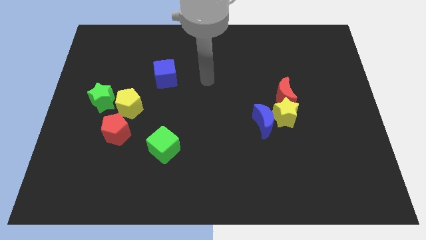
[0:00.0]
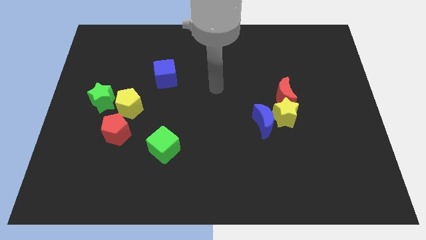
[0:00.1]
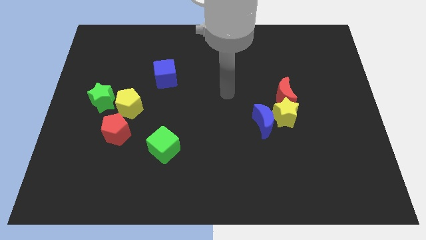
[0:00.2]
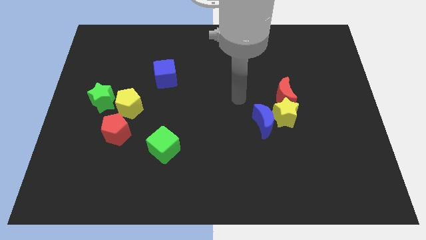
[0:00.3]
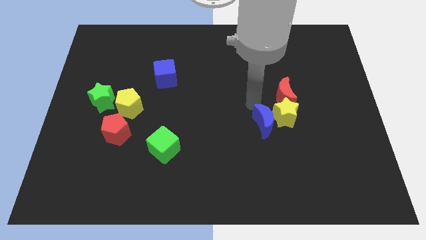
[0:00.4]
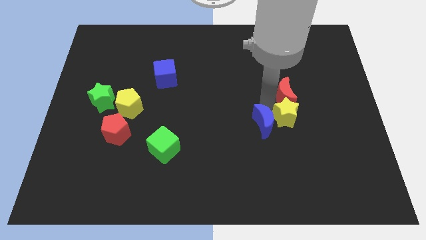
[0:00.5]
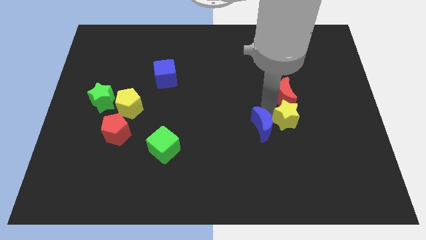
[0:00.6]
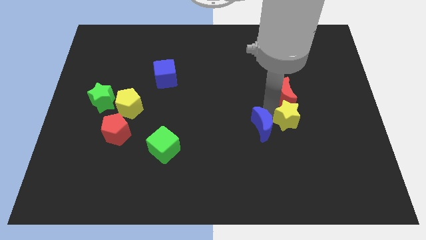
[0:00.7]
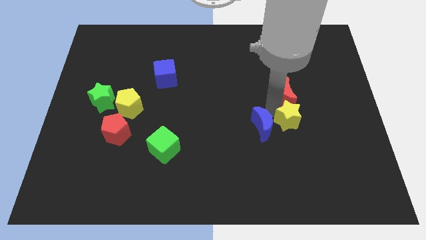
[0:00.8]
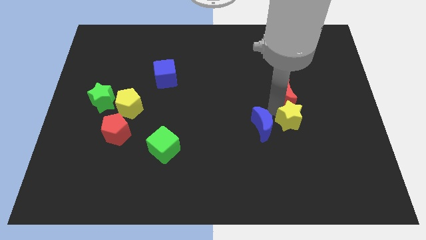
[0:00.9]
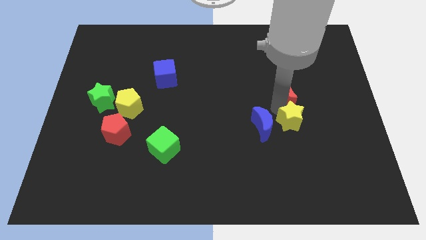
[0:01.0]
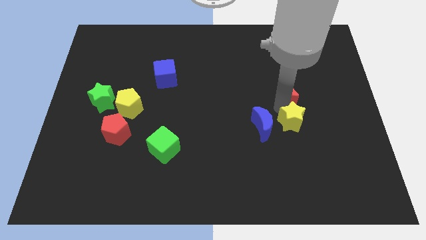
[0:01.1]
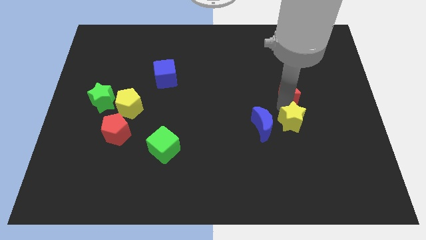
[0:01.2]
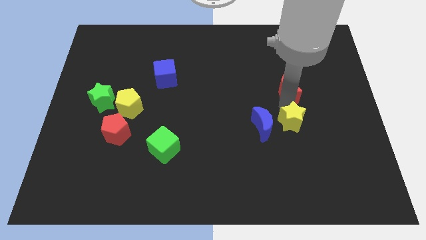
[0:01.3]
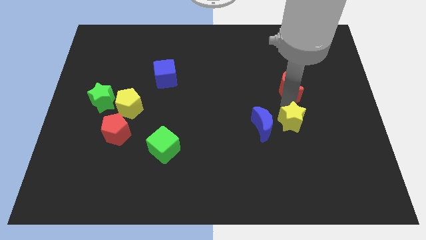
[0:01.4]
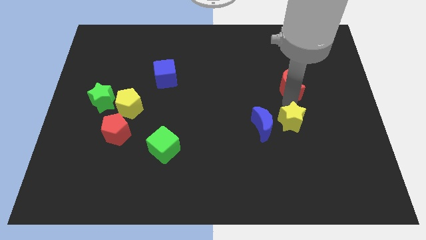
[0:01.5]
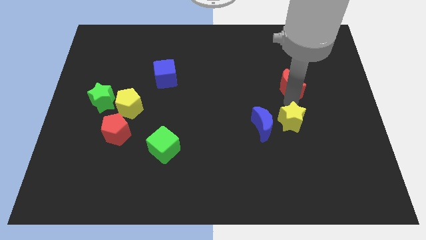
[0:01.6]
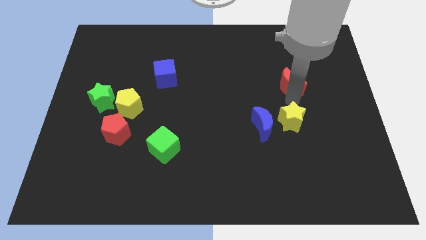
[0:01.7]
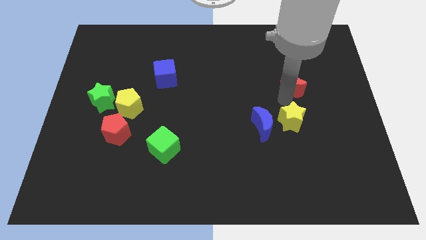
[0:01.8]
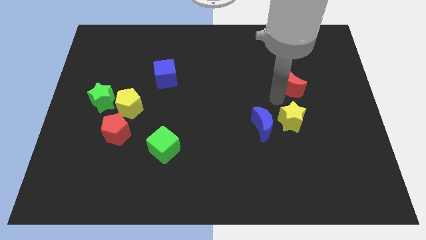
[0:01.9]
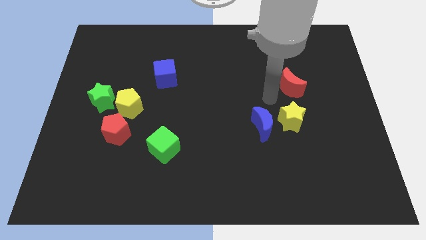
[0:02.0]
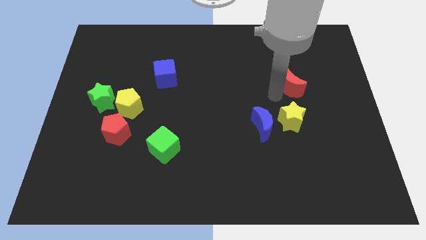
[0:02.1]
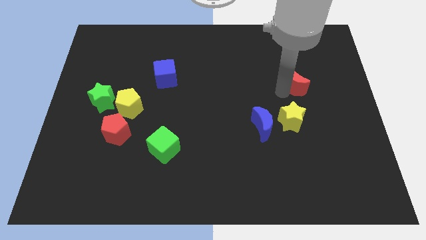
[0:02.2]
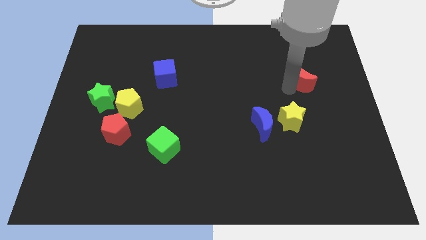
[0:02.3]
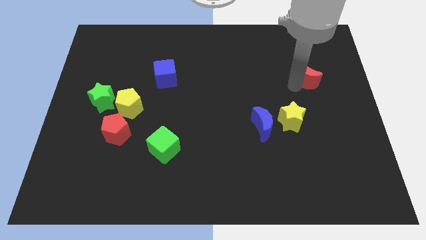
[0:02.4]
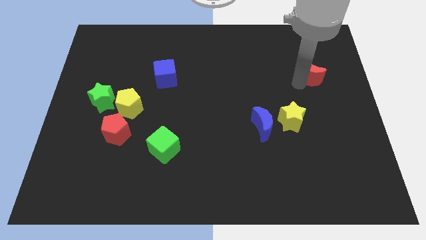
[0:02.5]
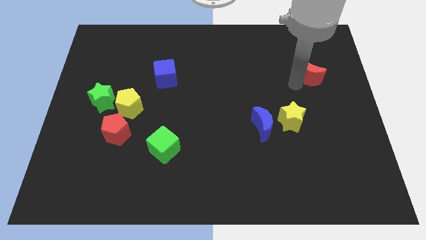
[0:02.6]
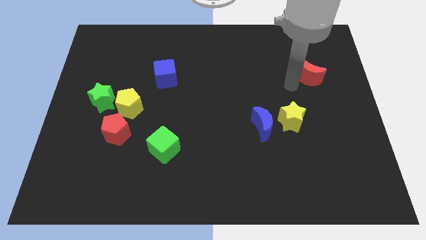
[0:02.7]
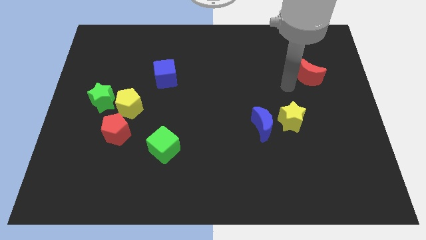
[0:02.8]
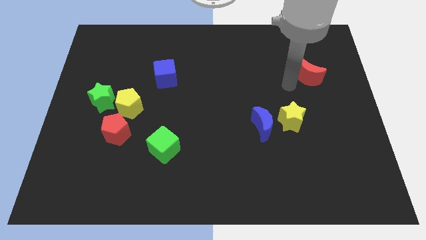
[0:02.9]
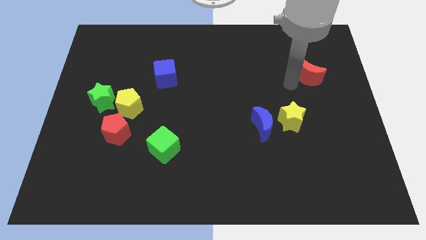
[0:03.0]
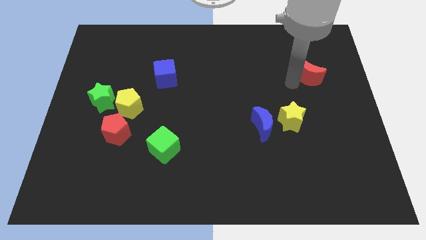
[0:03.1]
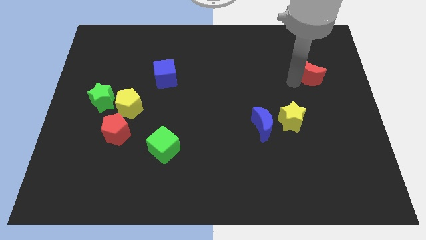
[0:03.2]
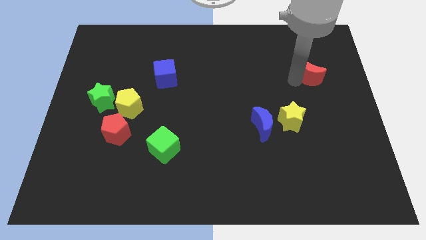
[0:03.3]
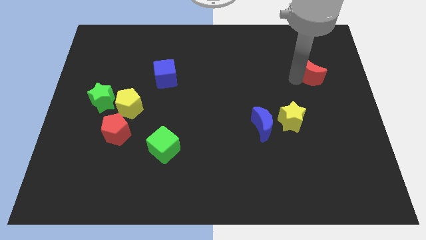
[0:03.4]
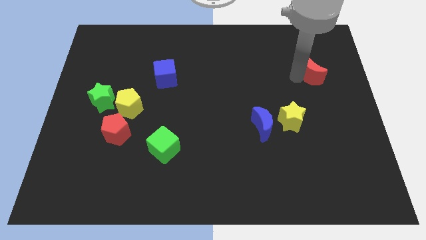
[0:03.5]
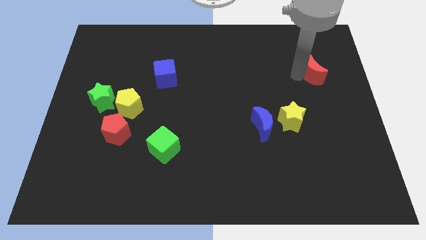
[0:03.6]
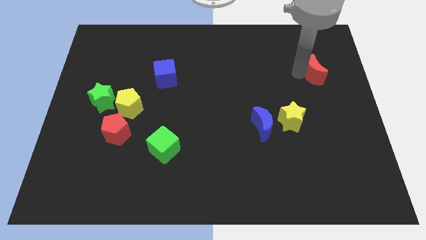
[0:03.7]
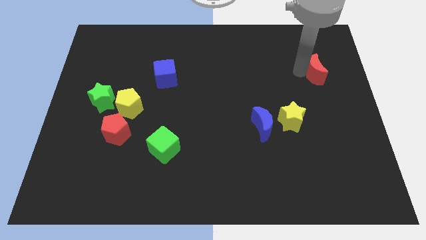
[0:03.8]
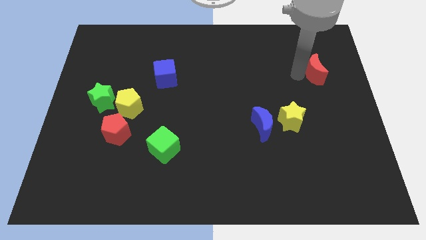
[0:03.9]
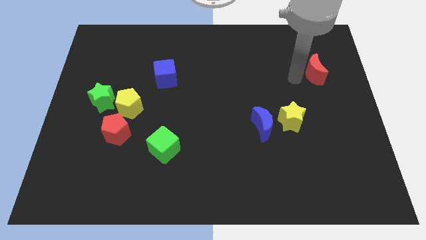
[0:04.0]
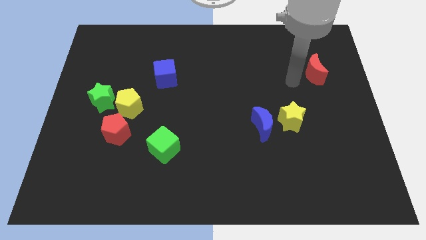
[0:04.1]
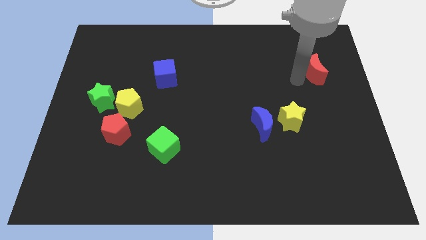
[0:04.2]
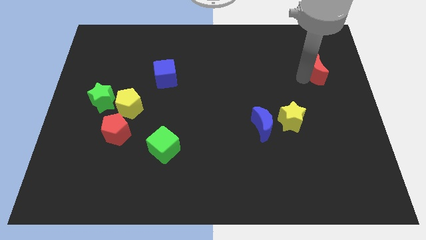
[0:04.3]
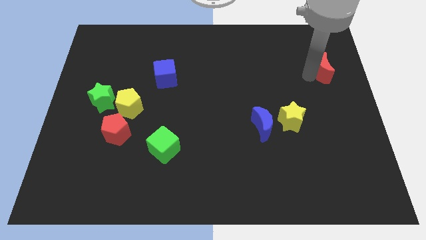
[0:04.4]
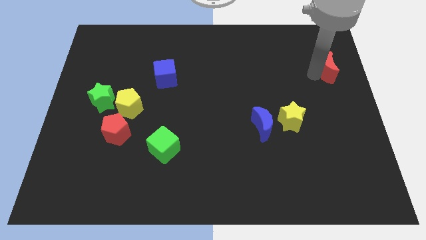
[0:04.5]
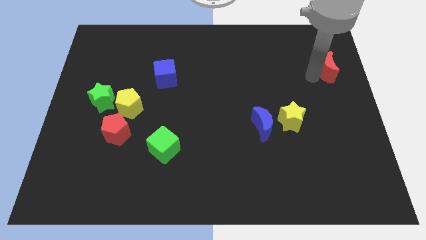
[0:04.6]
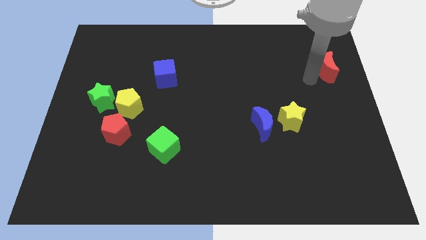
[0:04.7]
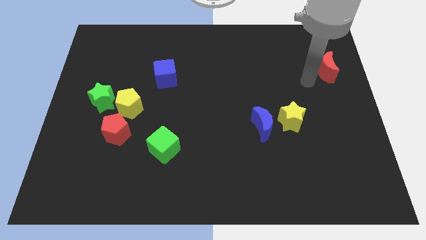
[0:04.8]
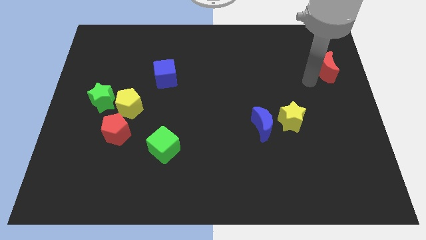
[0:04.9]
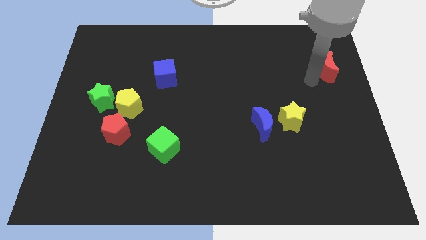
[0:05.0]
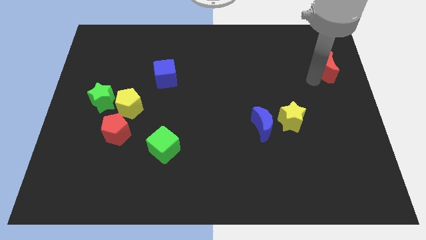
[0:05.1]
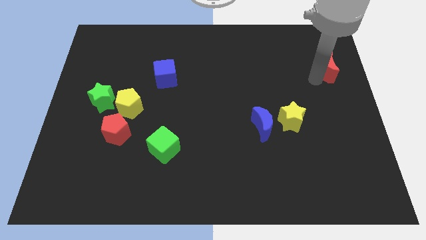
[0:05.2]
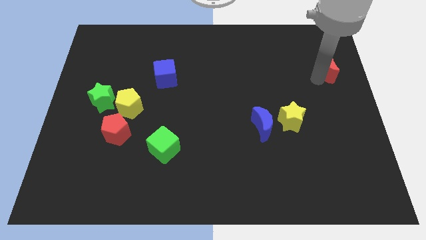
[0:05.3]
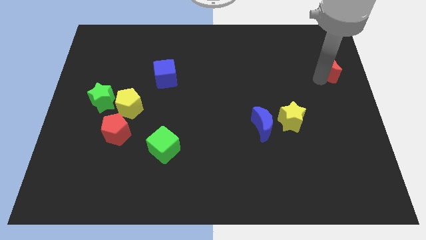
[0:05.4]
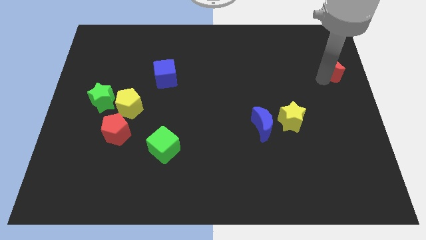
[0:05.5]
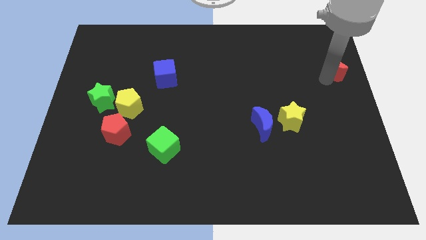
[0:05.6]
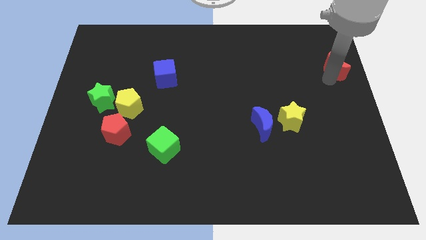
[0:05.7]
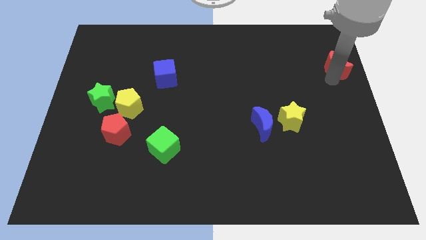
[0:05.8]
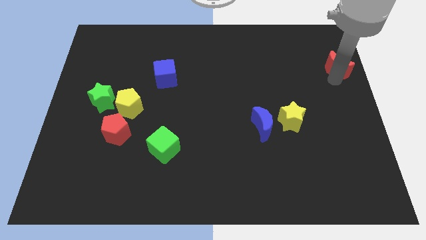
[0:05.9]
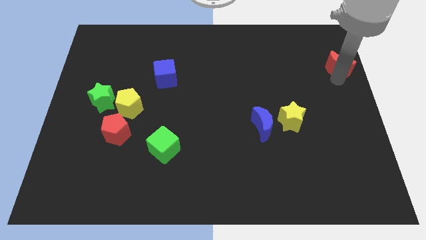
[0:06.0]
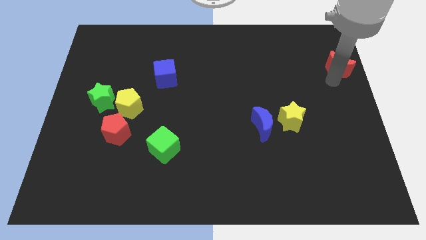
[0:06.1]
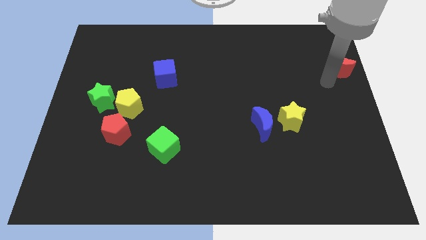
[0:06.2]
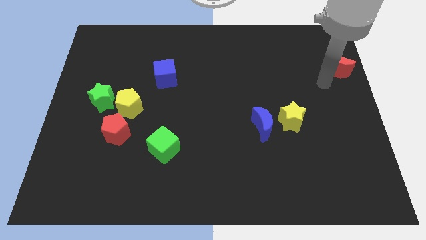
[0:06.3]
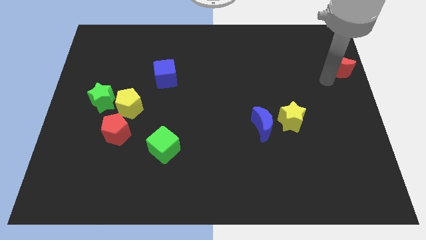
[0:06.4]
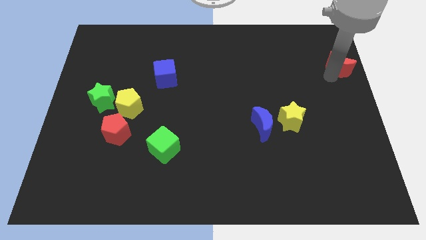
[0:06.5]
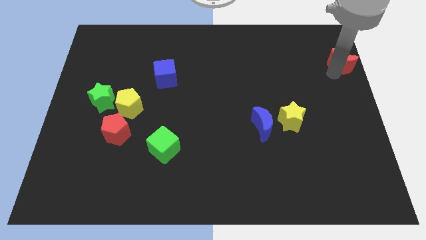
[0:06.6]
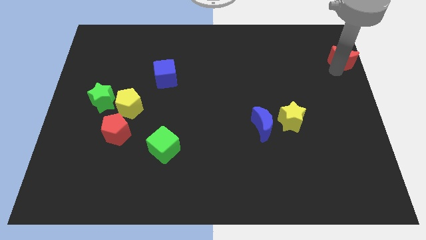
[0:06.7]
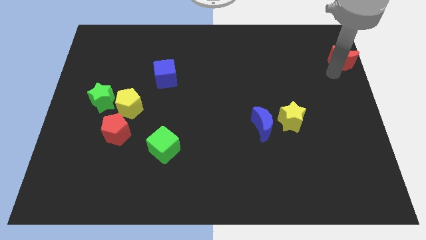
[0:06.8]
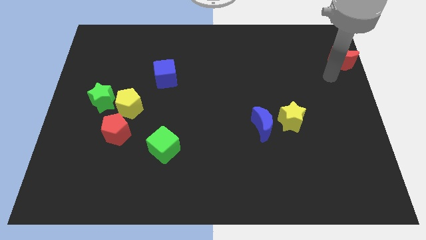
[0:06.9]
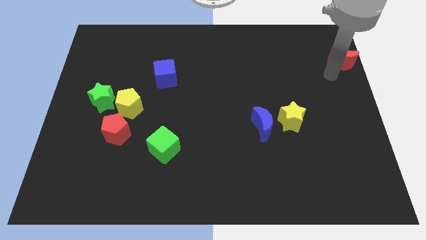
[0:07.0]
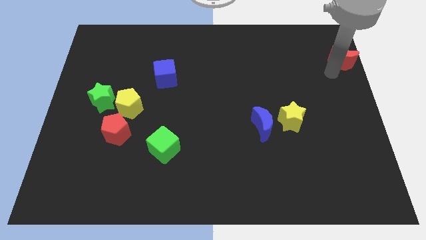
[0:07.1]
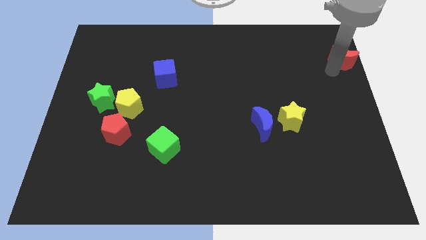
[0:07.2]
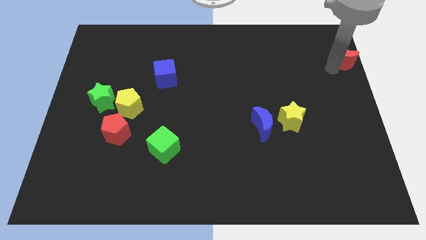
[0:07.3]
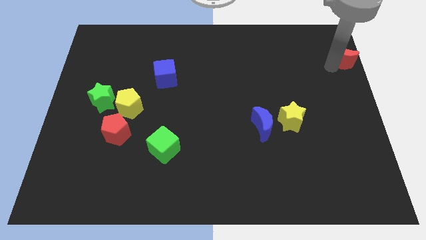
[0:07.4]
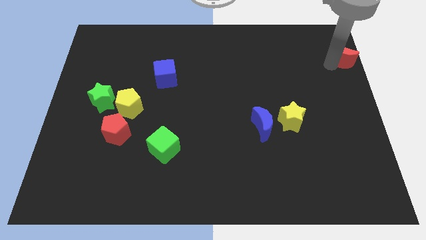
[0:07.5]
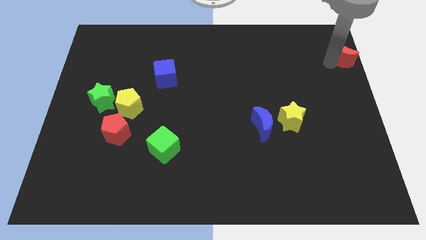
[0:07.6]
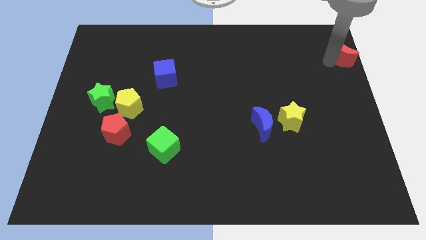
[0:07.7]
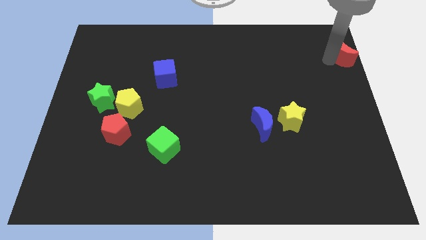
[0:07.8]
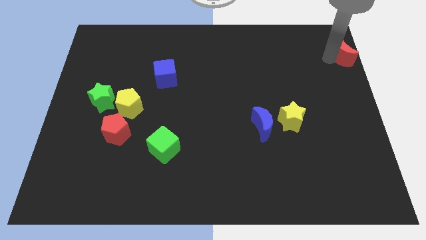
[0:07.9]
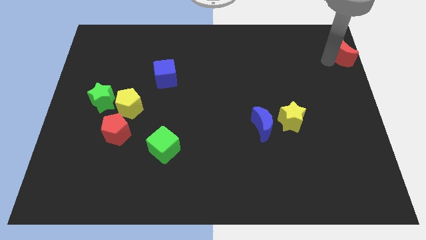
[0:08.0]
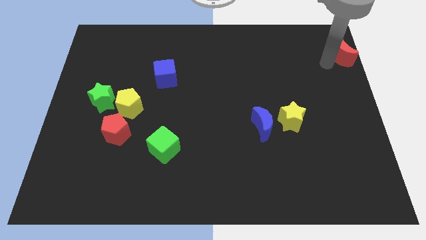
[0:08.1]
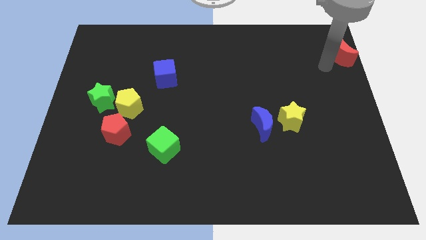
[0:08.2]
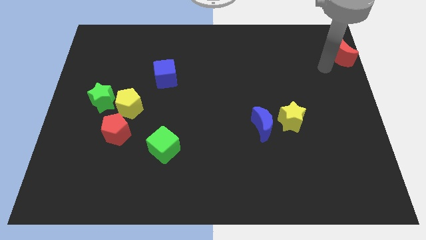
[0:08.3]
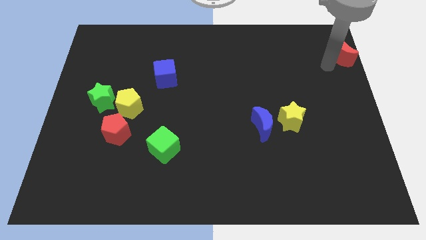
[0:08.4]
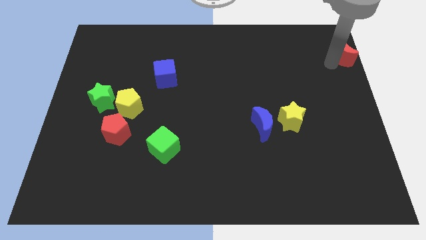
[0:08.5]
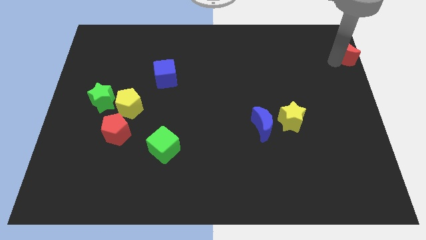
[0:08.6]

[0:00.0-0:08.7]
slide the red moon to the top right corner
